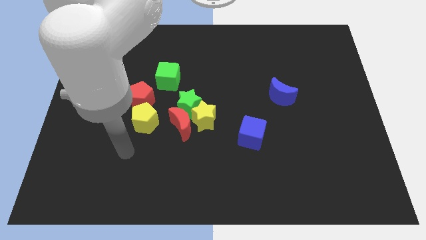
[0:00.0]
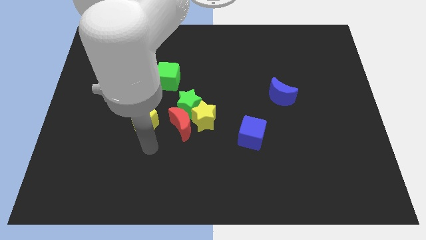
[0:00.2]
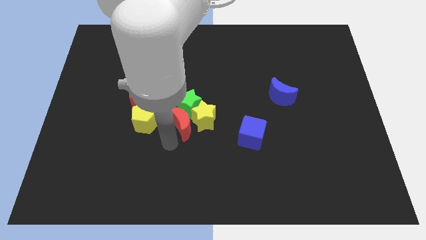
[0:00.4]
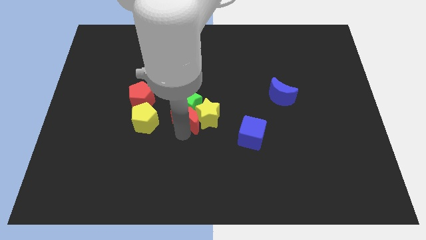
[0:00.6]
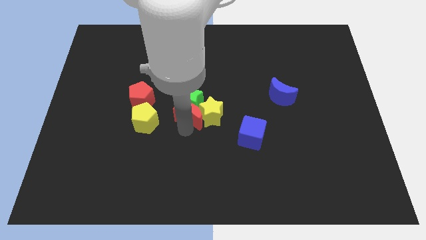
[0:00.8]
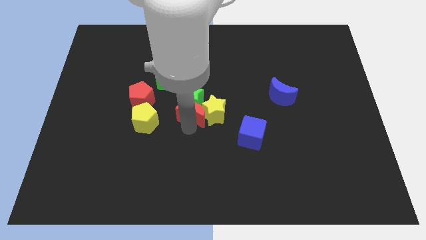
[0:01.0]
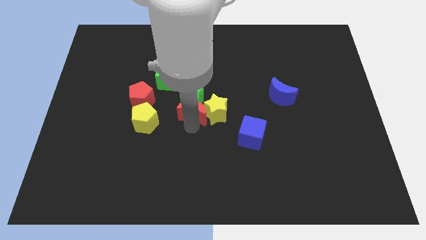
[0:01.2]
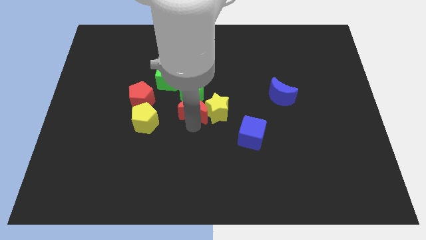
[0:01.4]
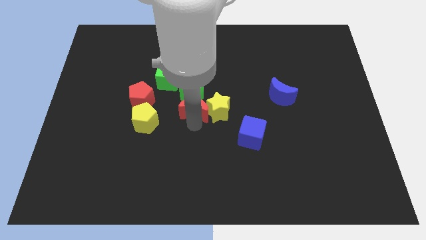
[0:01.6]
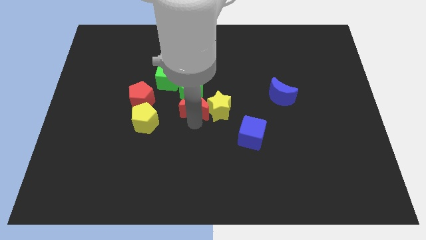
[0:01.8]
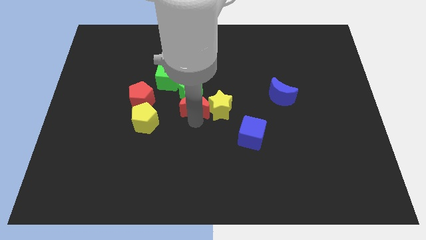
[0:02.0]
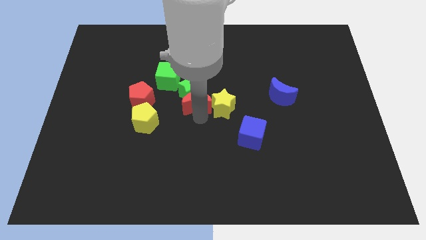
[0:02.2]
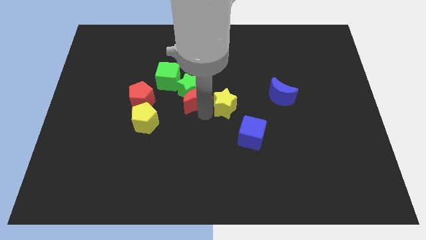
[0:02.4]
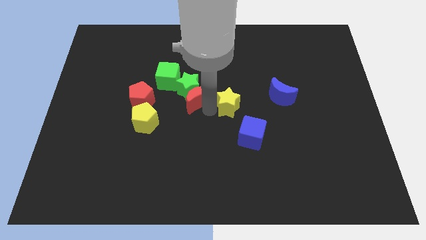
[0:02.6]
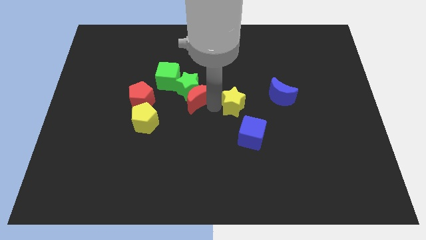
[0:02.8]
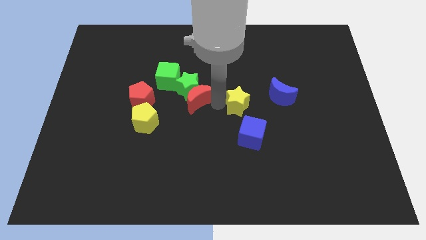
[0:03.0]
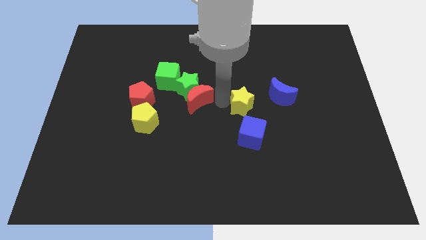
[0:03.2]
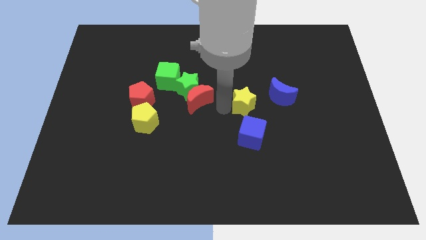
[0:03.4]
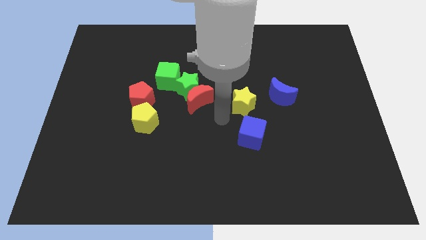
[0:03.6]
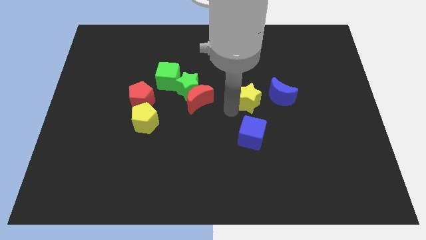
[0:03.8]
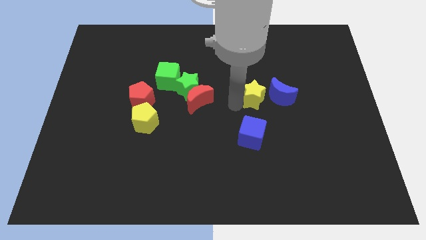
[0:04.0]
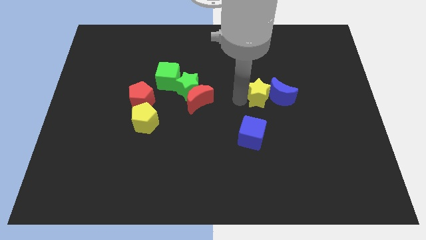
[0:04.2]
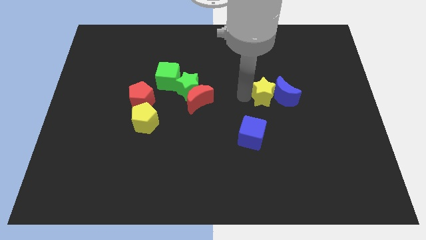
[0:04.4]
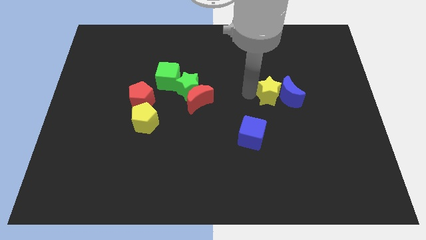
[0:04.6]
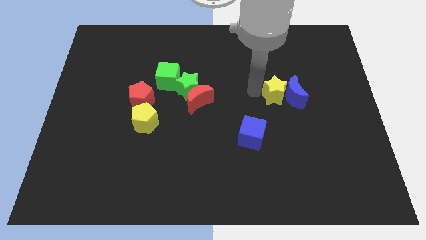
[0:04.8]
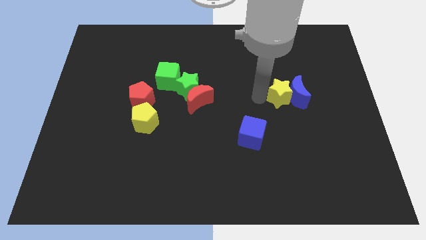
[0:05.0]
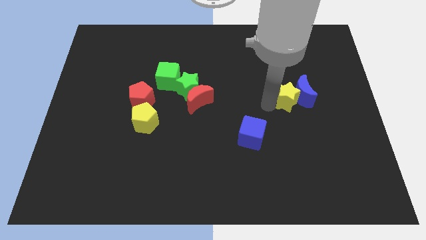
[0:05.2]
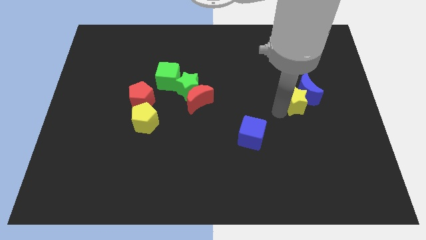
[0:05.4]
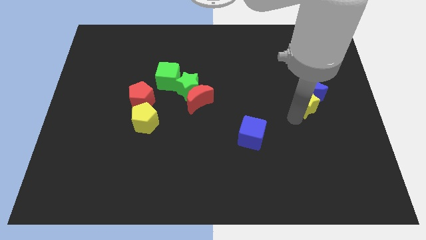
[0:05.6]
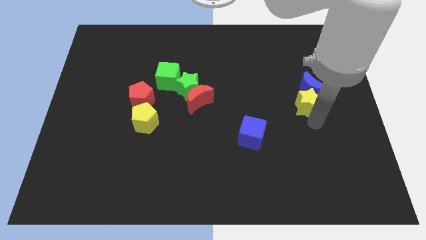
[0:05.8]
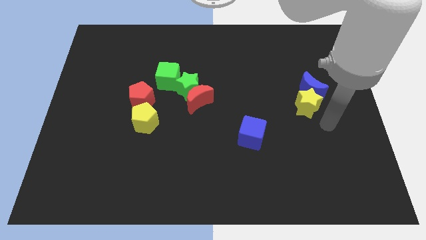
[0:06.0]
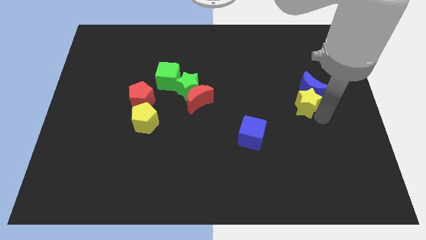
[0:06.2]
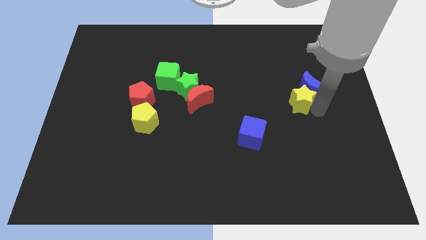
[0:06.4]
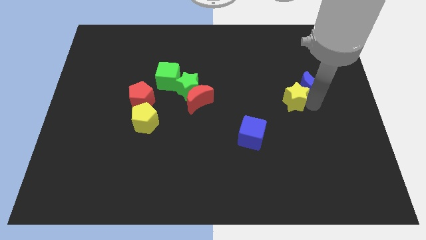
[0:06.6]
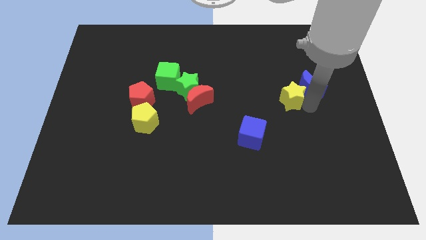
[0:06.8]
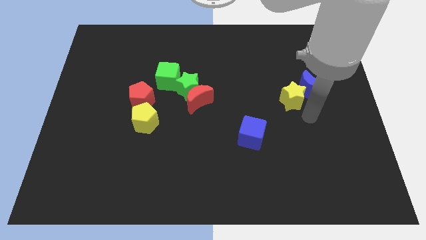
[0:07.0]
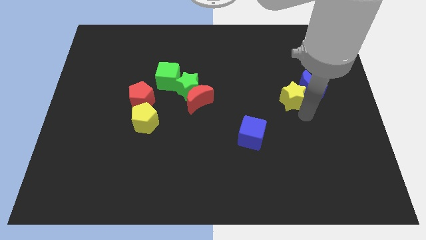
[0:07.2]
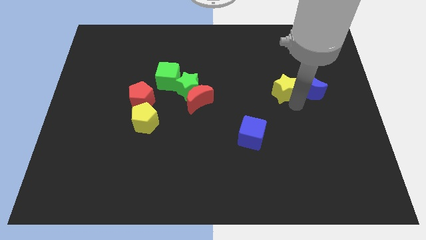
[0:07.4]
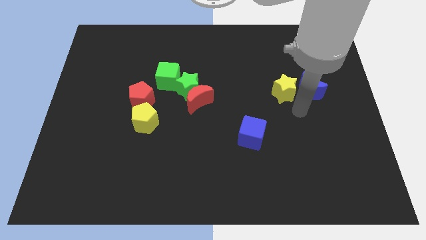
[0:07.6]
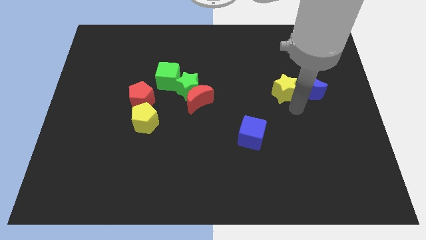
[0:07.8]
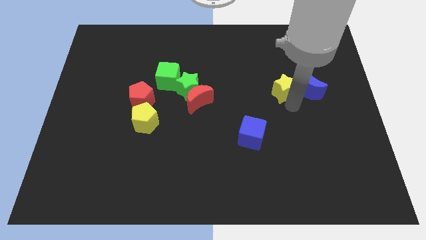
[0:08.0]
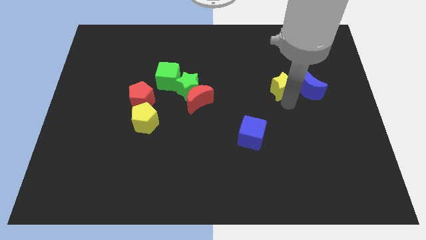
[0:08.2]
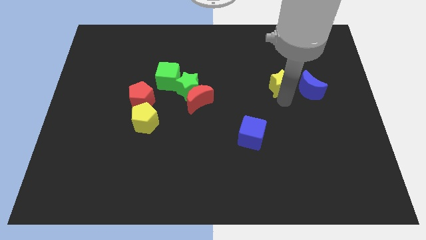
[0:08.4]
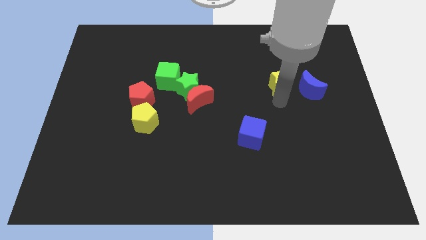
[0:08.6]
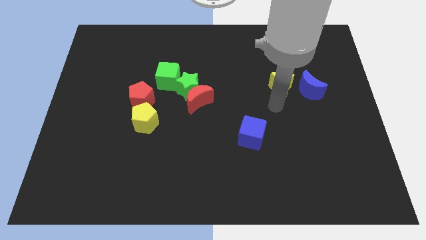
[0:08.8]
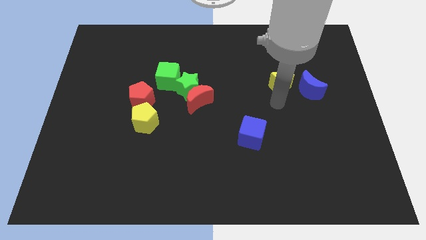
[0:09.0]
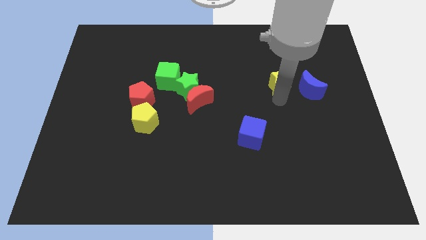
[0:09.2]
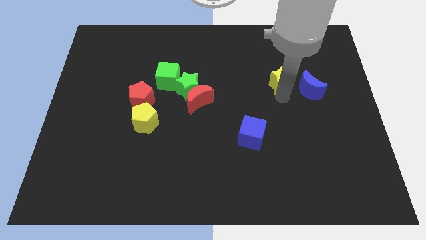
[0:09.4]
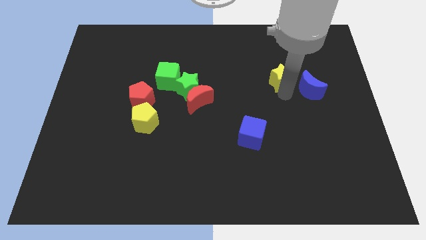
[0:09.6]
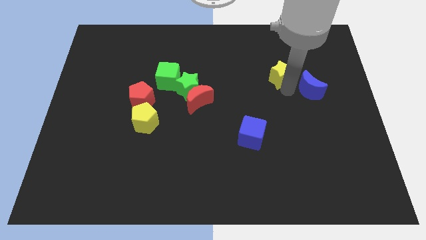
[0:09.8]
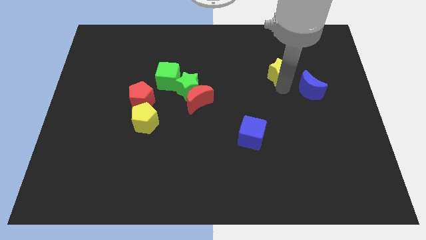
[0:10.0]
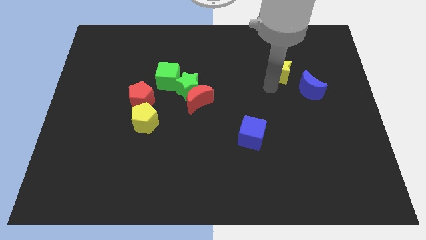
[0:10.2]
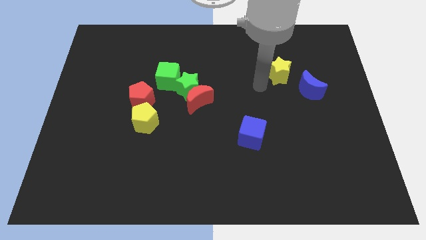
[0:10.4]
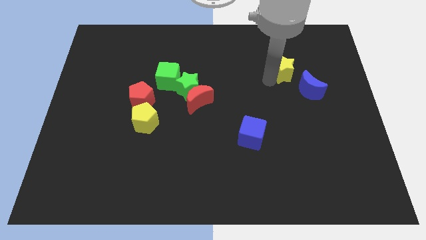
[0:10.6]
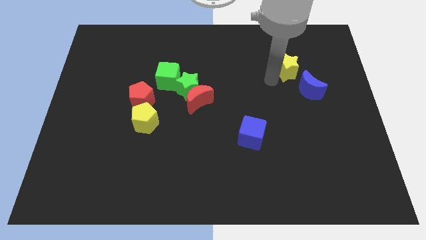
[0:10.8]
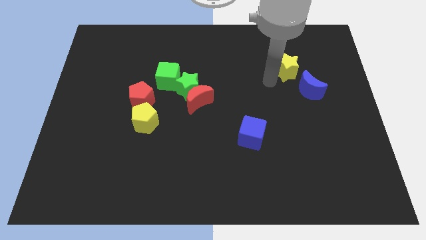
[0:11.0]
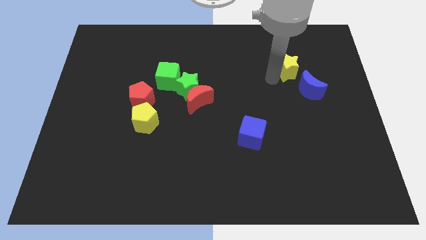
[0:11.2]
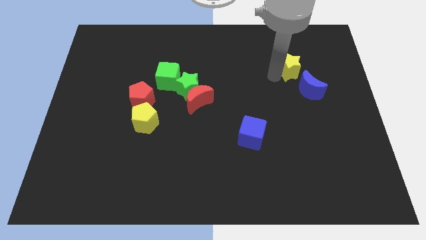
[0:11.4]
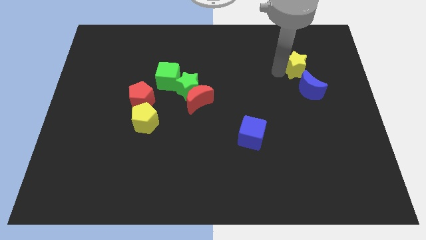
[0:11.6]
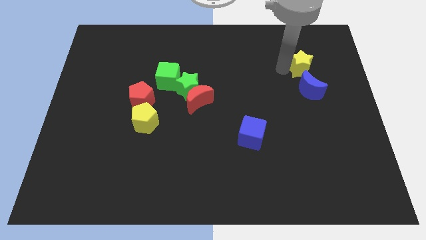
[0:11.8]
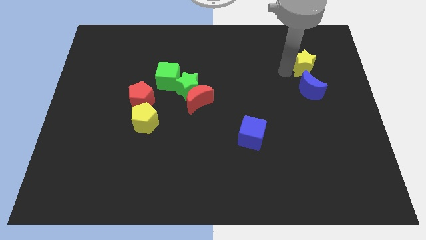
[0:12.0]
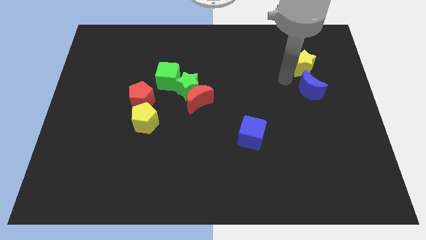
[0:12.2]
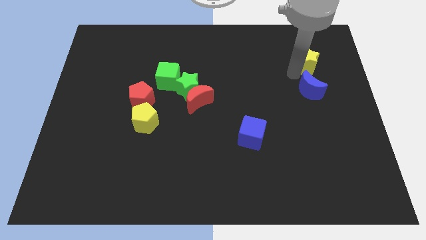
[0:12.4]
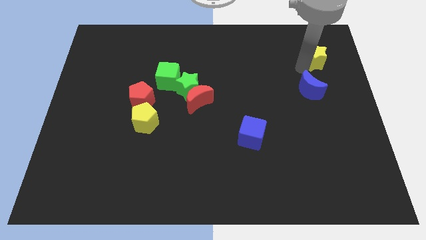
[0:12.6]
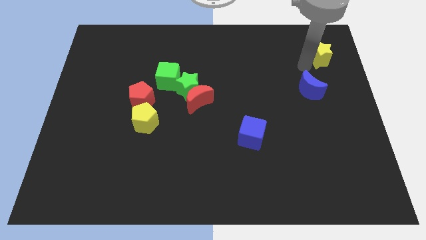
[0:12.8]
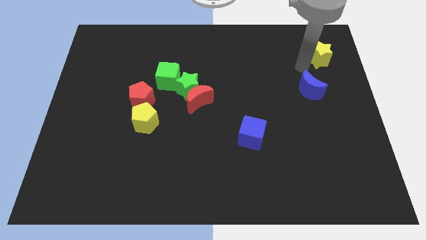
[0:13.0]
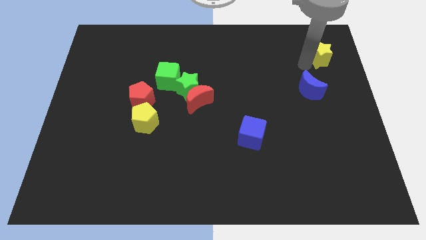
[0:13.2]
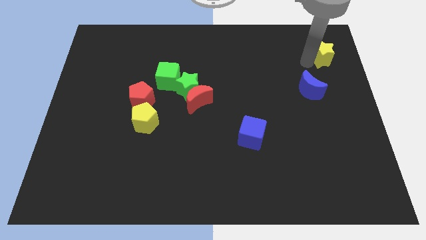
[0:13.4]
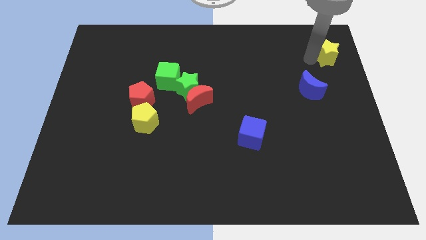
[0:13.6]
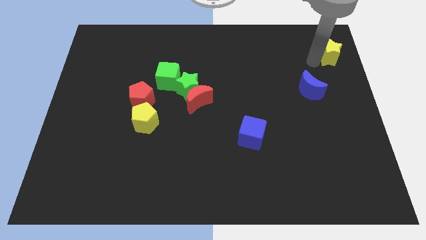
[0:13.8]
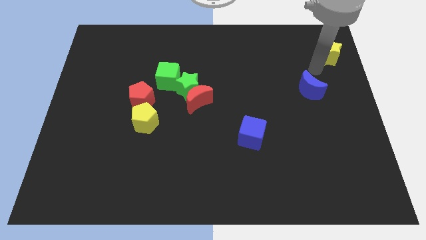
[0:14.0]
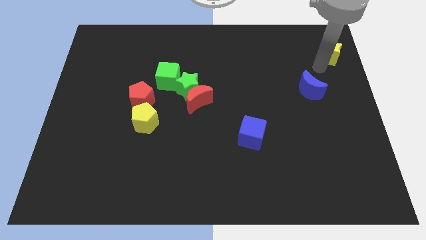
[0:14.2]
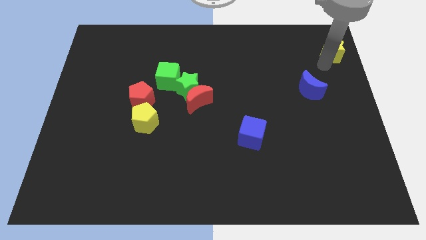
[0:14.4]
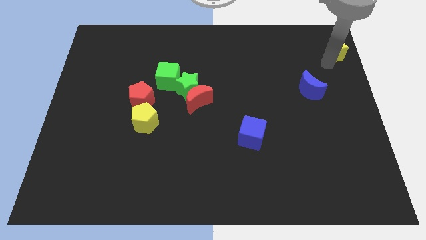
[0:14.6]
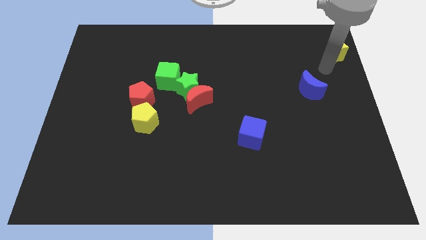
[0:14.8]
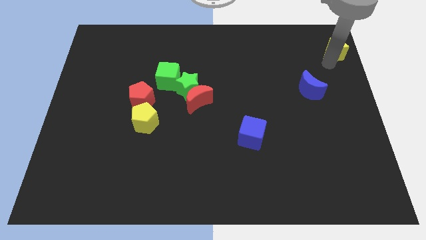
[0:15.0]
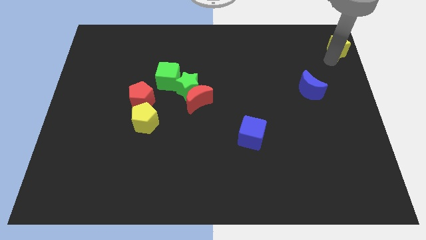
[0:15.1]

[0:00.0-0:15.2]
move the yellow star to the top right
